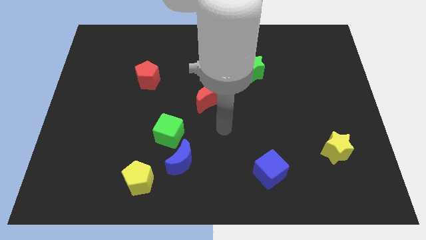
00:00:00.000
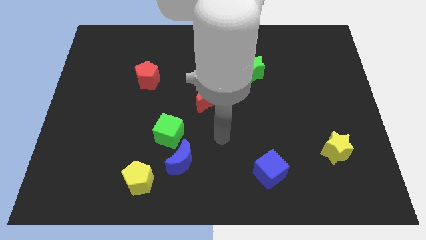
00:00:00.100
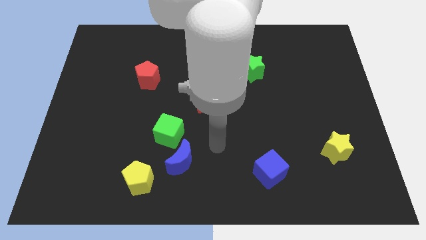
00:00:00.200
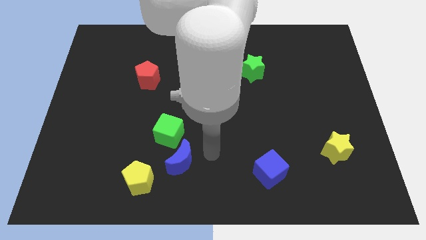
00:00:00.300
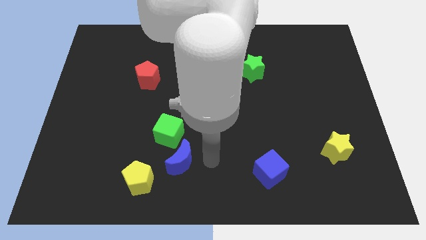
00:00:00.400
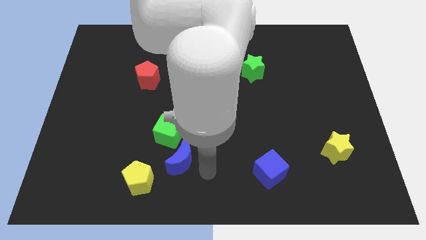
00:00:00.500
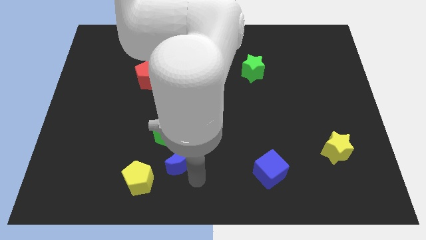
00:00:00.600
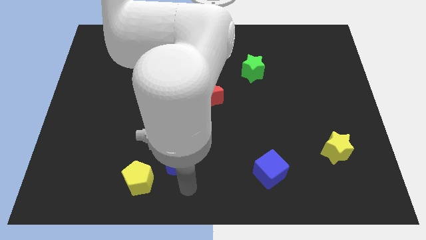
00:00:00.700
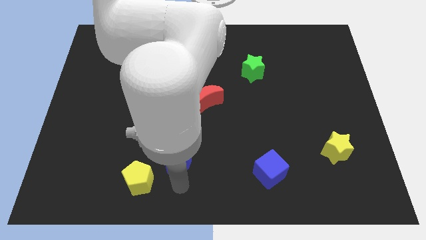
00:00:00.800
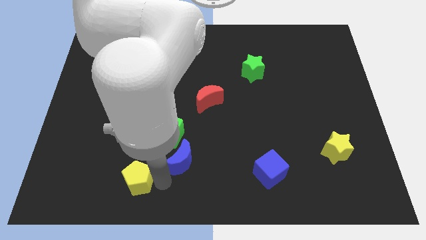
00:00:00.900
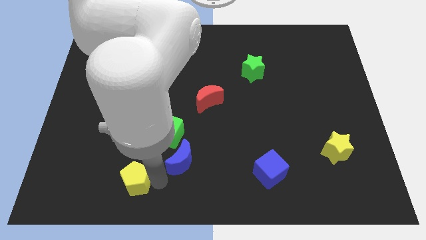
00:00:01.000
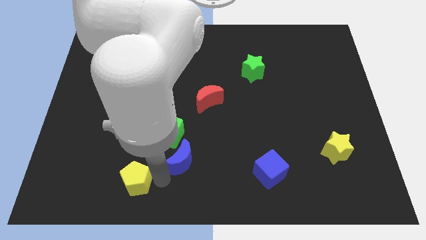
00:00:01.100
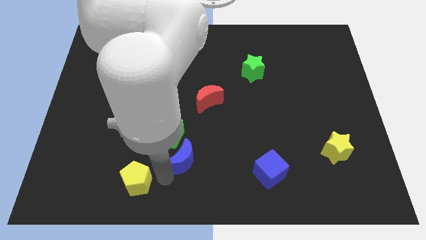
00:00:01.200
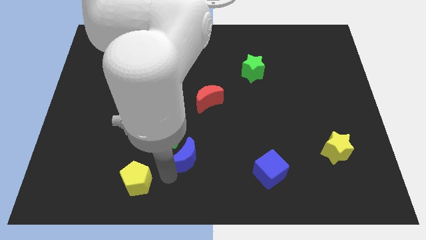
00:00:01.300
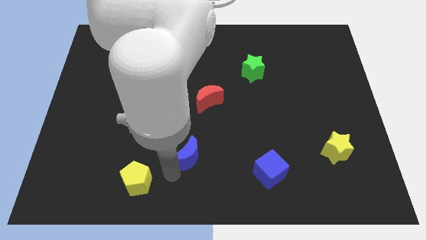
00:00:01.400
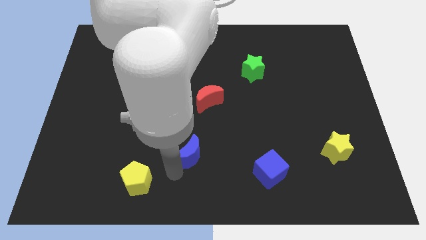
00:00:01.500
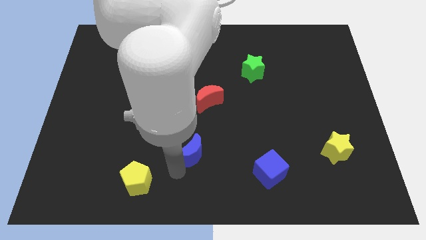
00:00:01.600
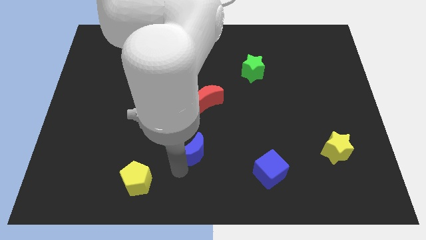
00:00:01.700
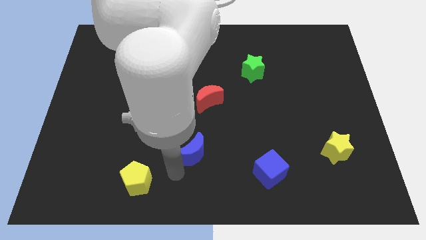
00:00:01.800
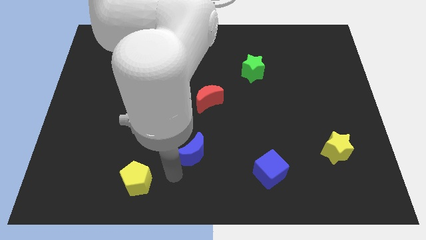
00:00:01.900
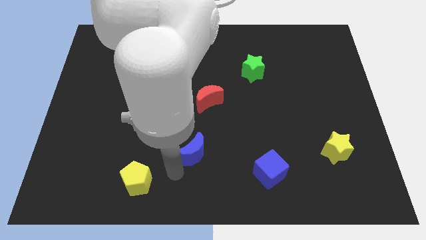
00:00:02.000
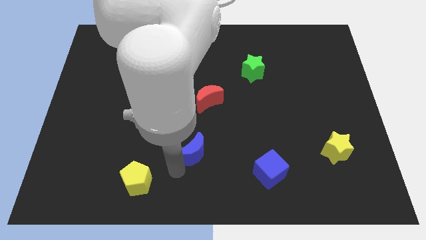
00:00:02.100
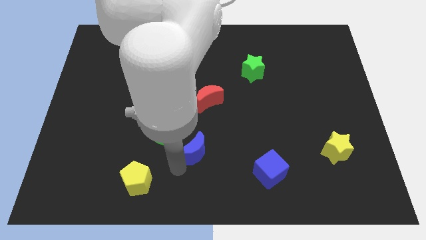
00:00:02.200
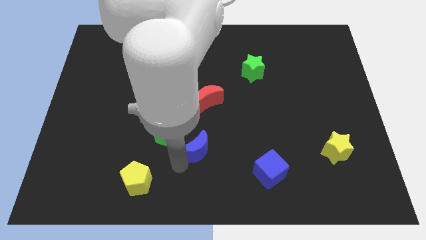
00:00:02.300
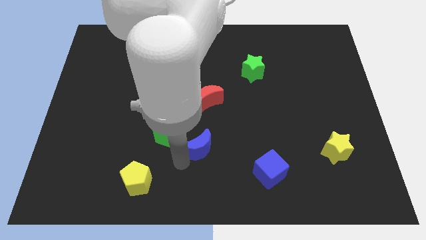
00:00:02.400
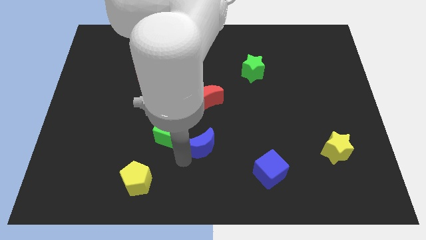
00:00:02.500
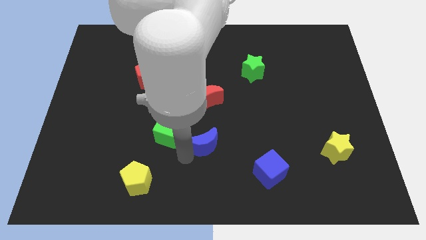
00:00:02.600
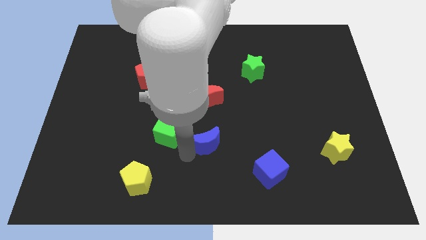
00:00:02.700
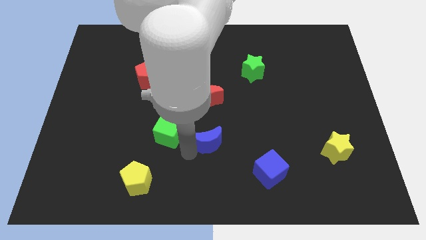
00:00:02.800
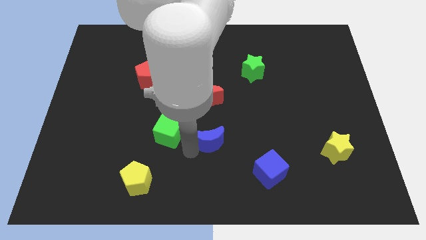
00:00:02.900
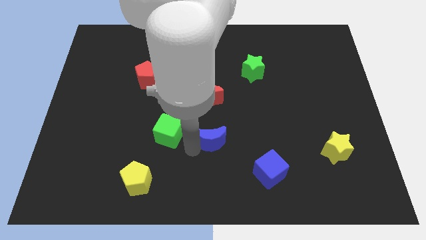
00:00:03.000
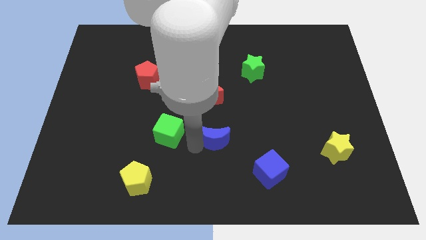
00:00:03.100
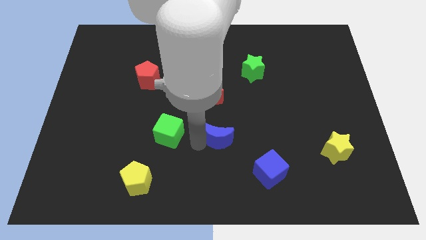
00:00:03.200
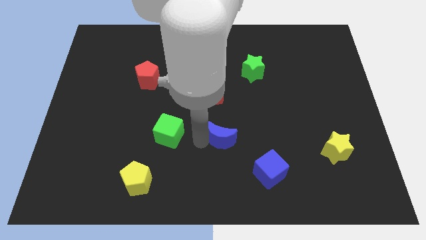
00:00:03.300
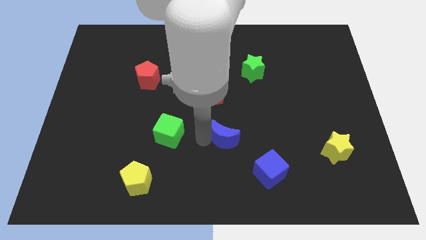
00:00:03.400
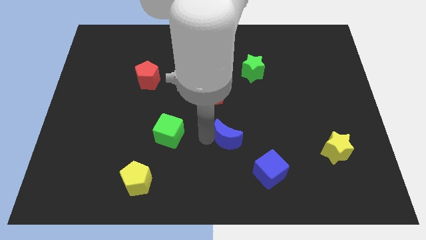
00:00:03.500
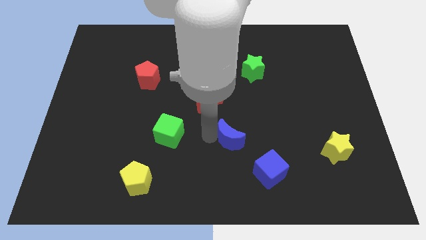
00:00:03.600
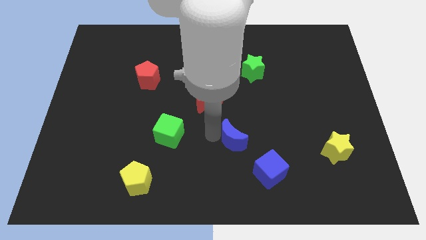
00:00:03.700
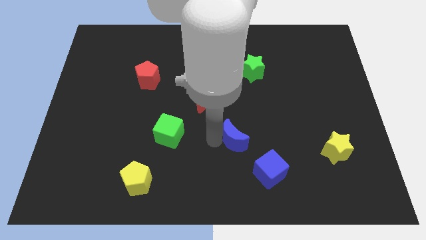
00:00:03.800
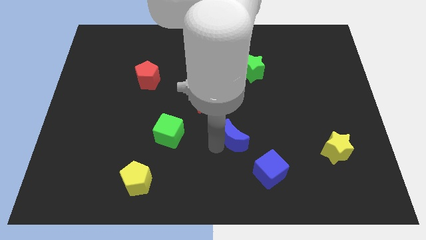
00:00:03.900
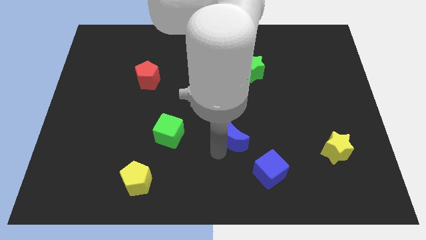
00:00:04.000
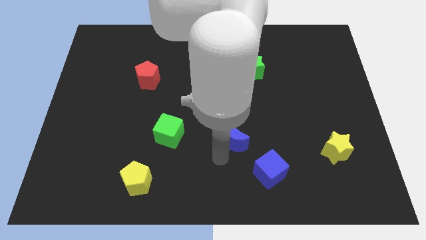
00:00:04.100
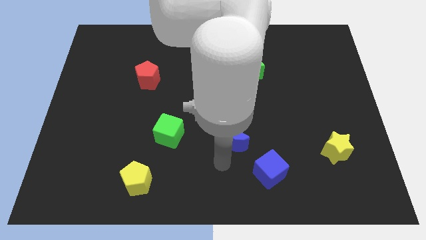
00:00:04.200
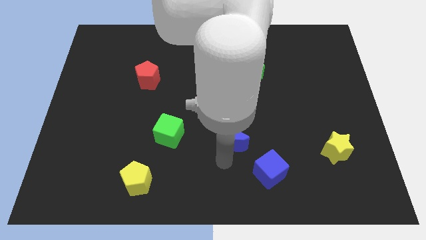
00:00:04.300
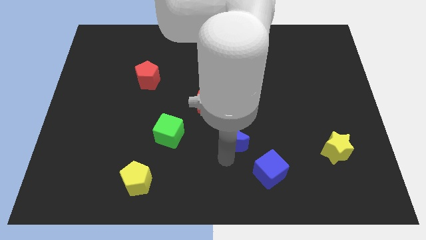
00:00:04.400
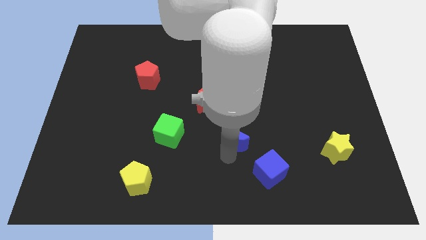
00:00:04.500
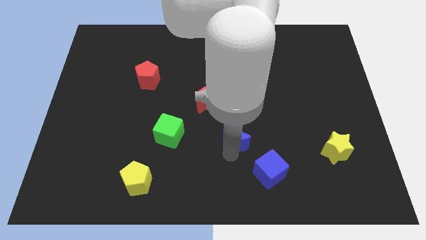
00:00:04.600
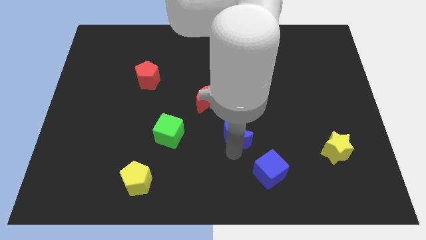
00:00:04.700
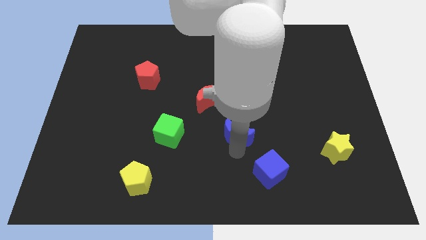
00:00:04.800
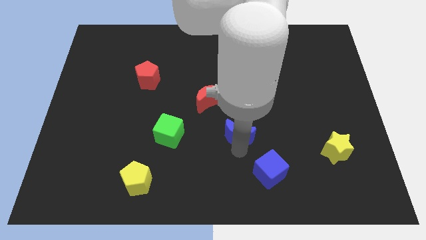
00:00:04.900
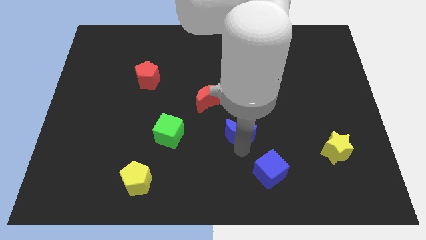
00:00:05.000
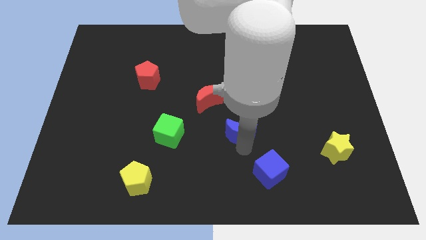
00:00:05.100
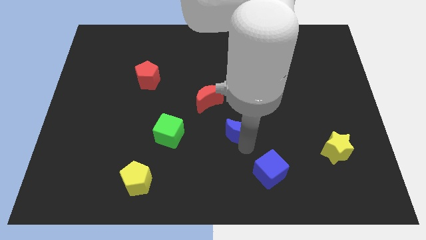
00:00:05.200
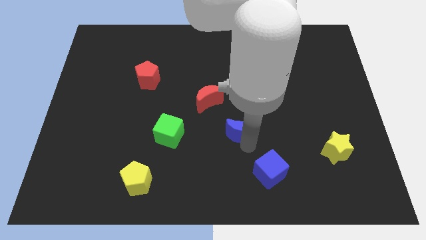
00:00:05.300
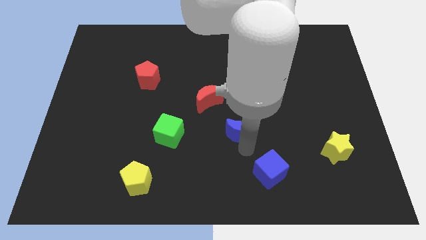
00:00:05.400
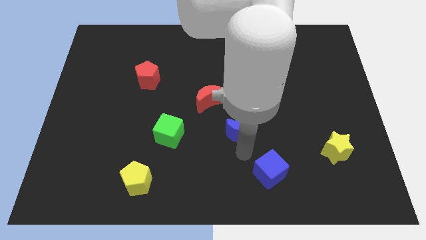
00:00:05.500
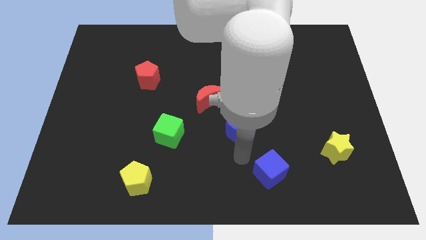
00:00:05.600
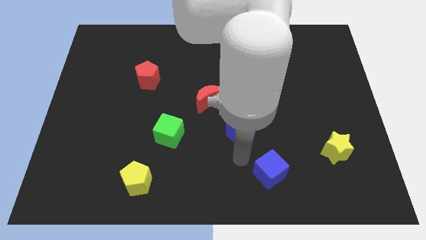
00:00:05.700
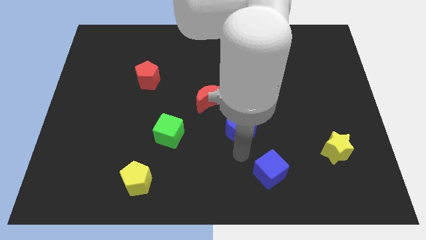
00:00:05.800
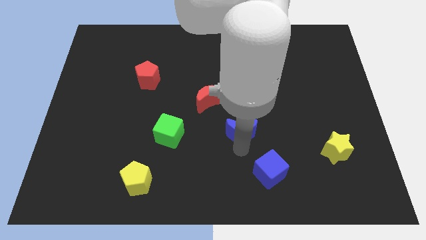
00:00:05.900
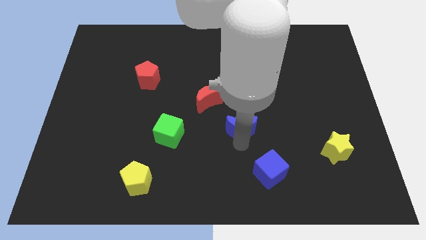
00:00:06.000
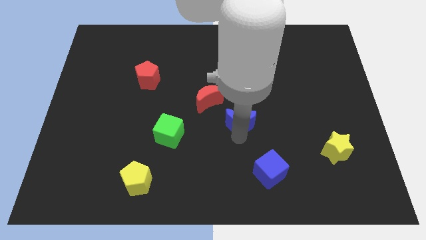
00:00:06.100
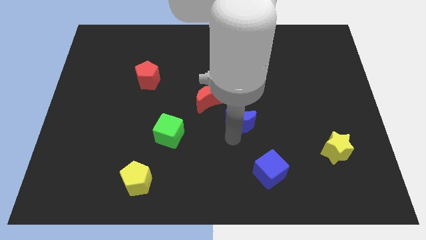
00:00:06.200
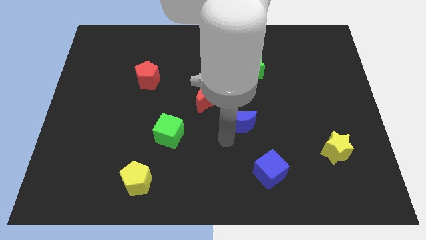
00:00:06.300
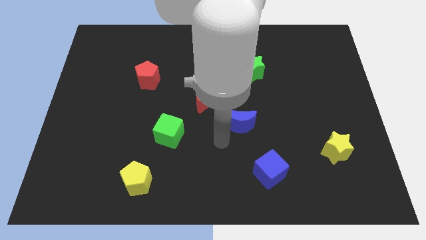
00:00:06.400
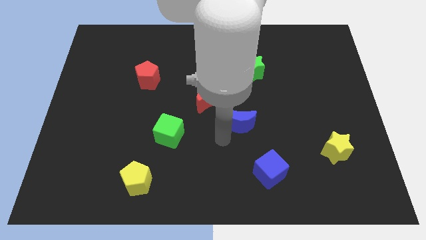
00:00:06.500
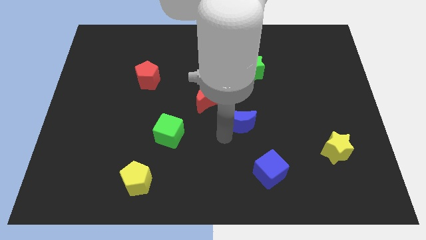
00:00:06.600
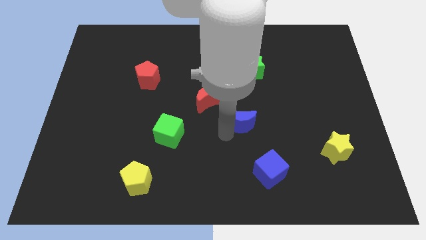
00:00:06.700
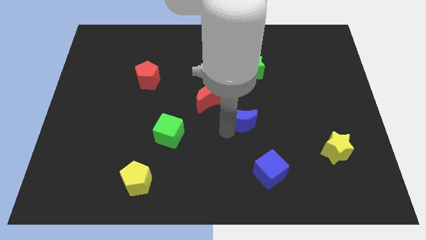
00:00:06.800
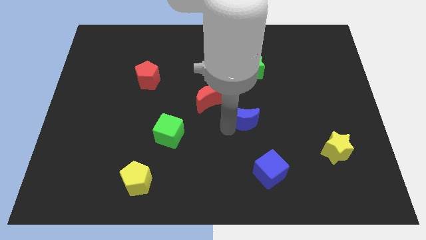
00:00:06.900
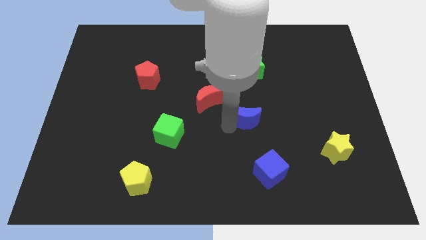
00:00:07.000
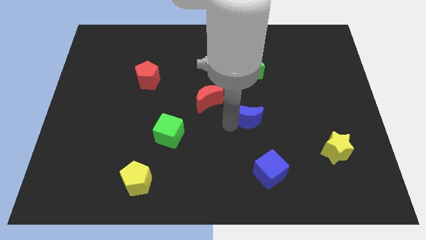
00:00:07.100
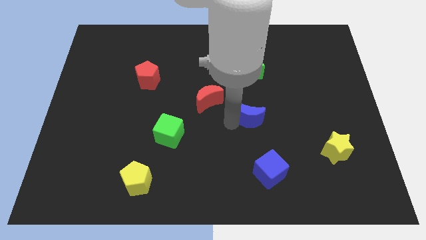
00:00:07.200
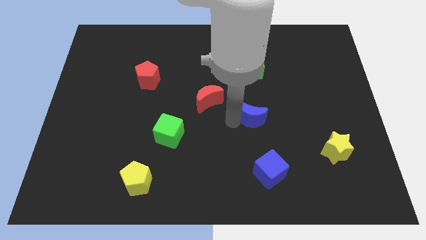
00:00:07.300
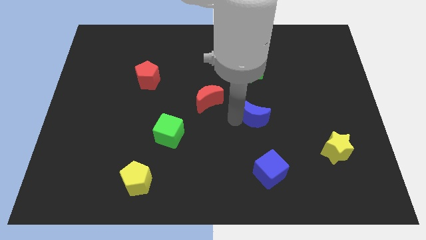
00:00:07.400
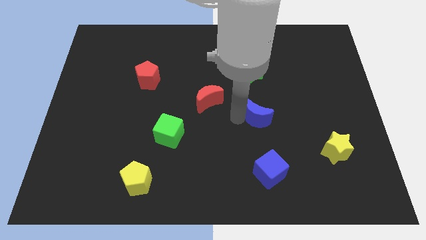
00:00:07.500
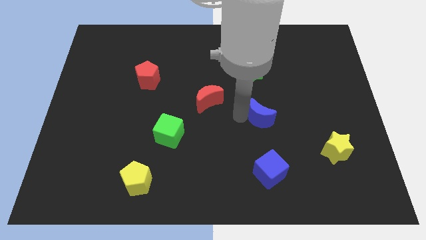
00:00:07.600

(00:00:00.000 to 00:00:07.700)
move the blue moon diagonally upwards and right
